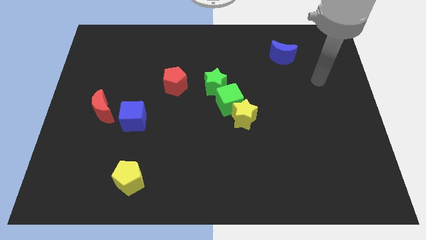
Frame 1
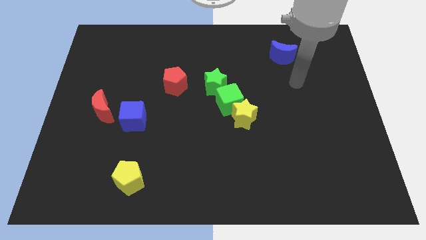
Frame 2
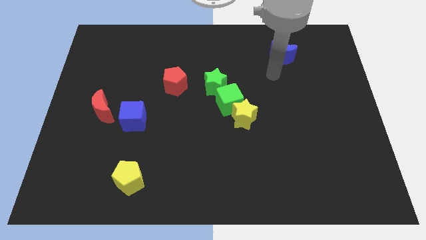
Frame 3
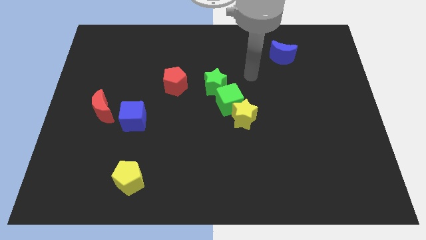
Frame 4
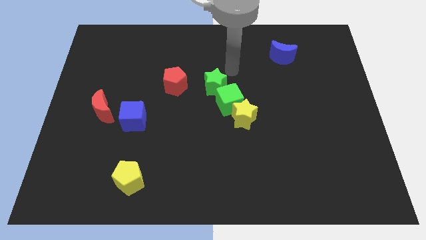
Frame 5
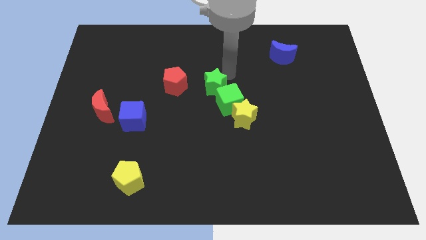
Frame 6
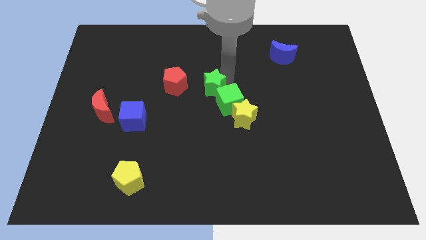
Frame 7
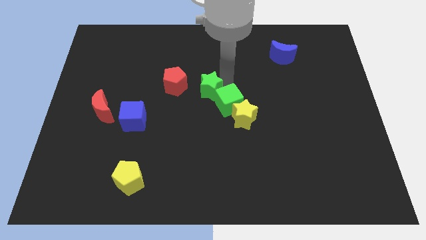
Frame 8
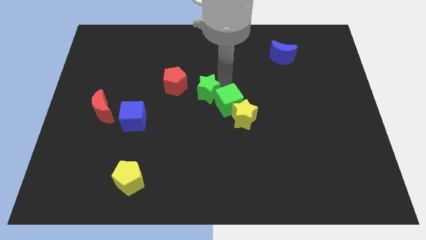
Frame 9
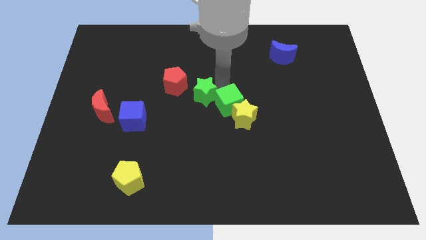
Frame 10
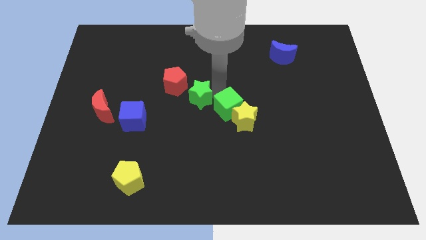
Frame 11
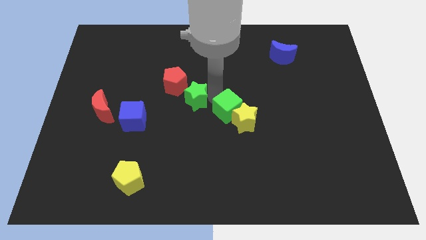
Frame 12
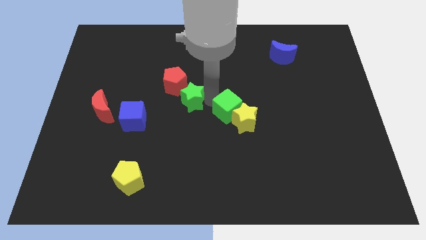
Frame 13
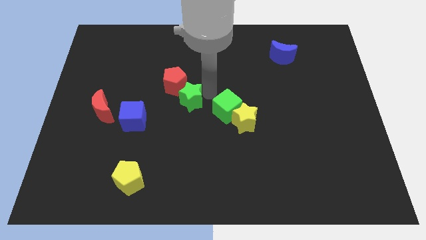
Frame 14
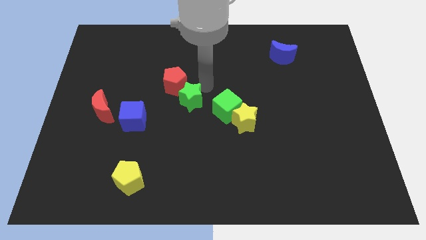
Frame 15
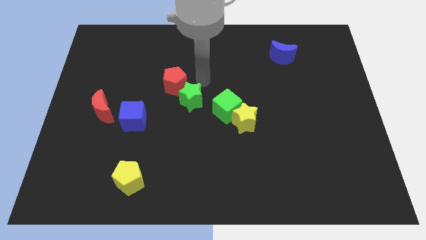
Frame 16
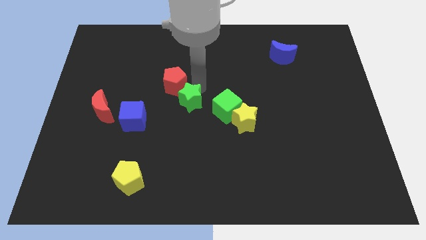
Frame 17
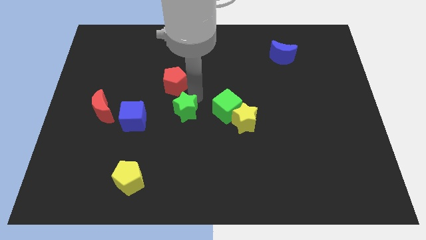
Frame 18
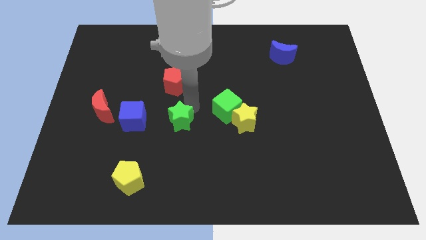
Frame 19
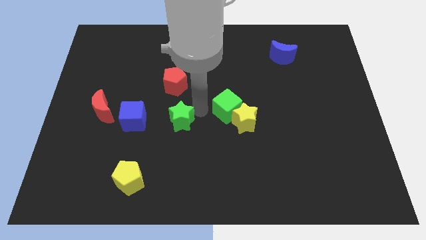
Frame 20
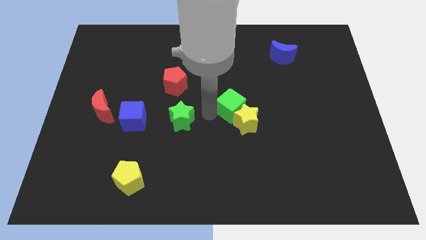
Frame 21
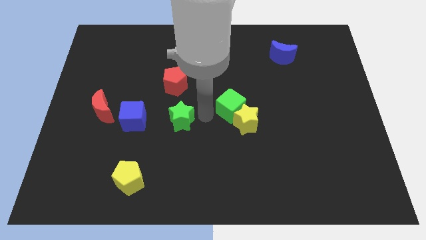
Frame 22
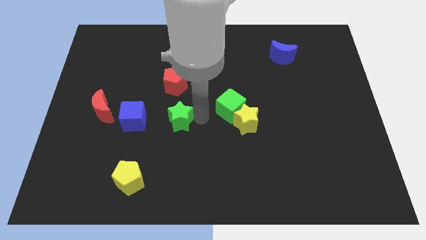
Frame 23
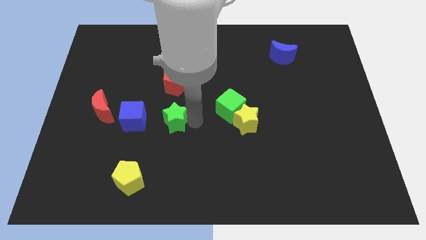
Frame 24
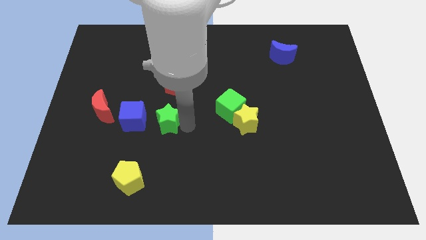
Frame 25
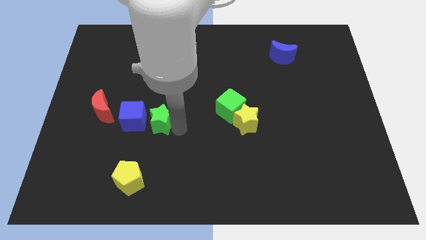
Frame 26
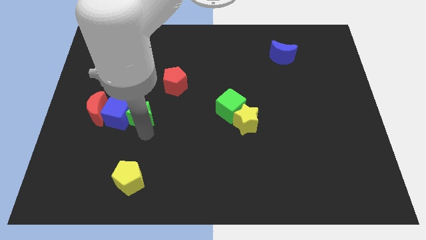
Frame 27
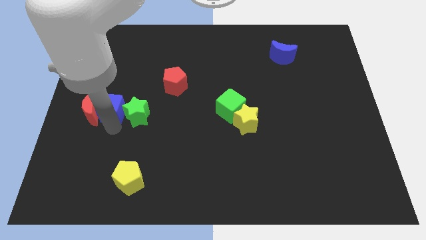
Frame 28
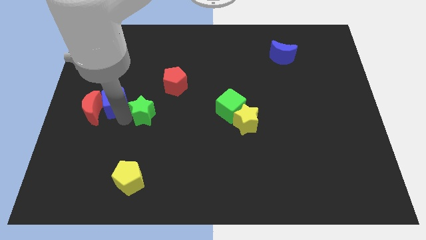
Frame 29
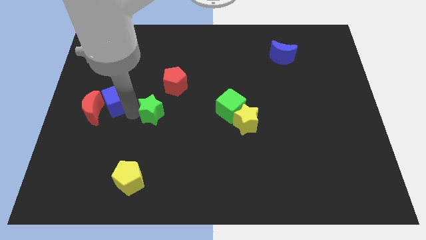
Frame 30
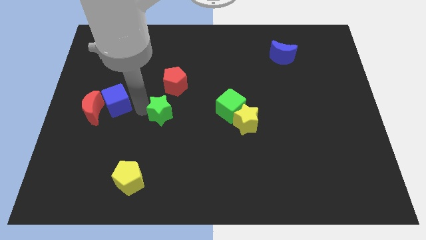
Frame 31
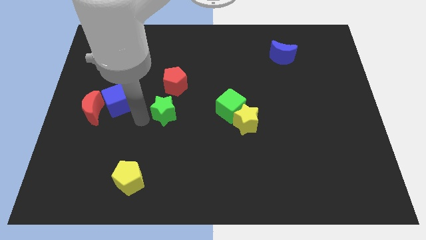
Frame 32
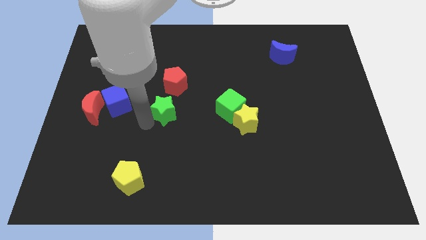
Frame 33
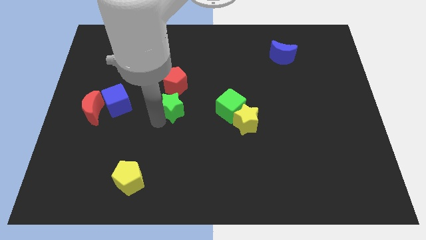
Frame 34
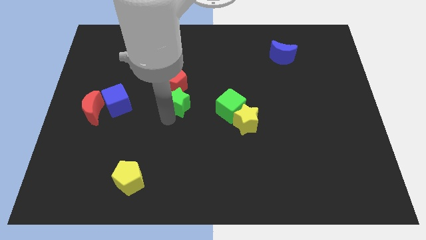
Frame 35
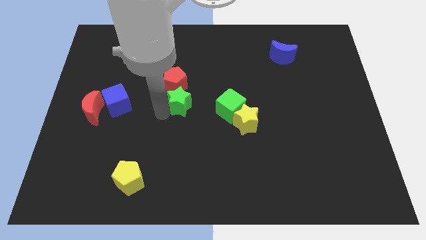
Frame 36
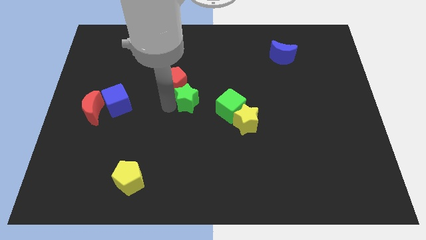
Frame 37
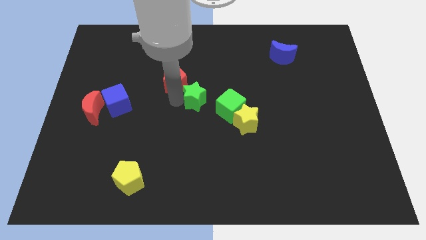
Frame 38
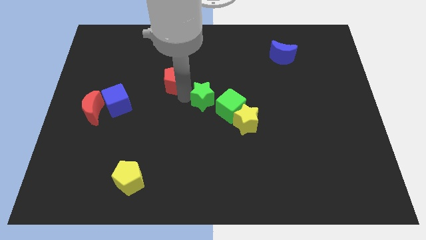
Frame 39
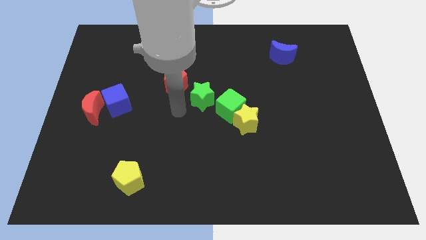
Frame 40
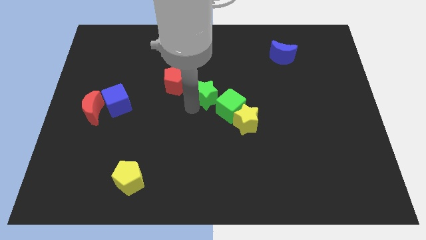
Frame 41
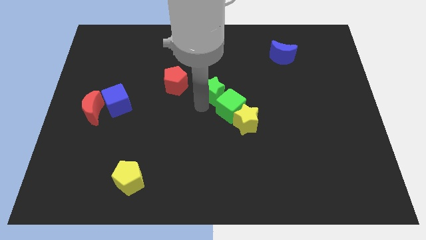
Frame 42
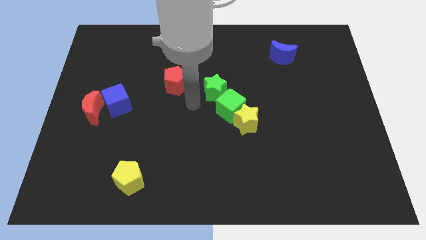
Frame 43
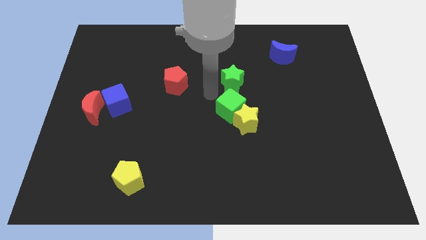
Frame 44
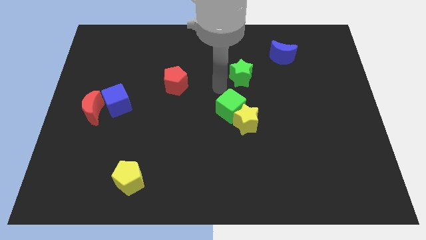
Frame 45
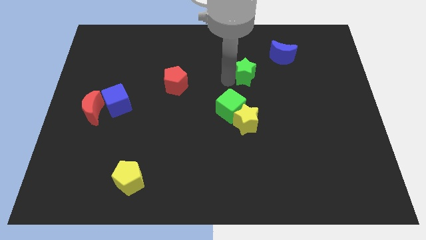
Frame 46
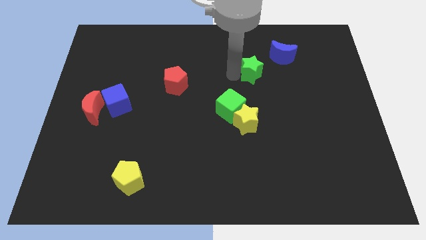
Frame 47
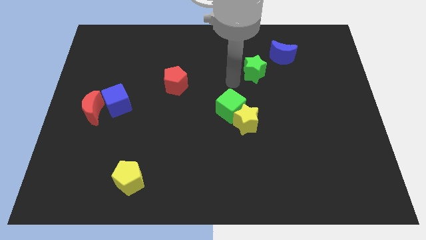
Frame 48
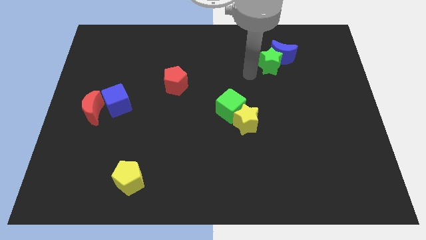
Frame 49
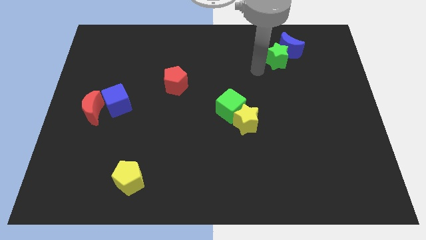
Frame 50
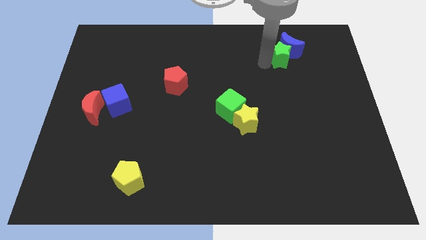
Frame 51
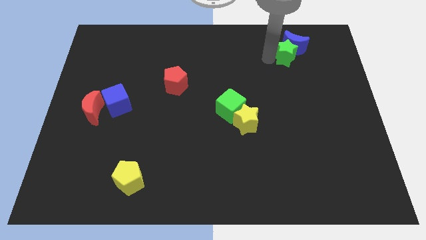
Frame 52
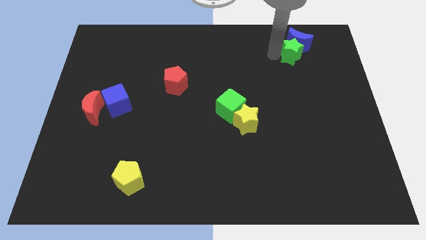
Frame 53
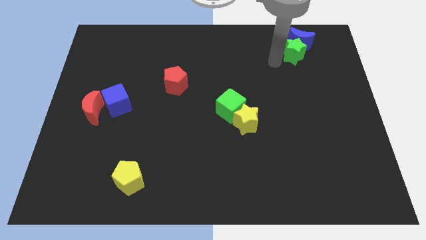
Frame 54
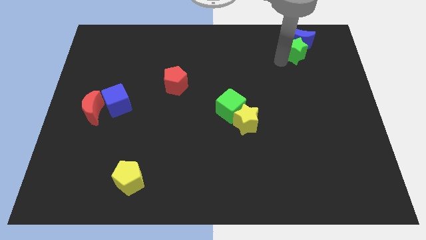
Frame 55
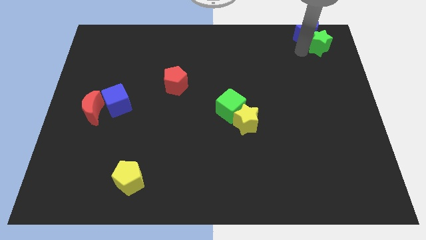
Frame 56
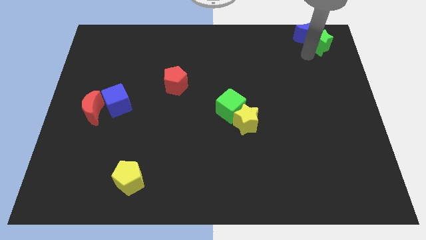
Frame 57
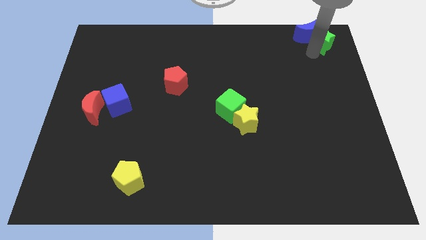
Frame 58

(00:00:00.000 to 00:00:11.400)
push the green star to the top right

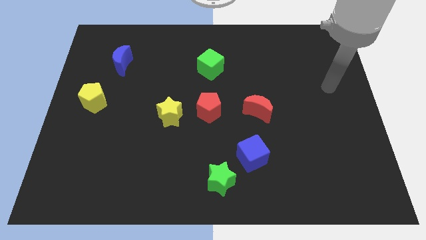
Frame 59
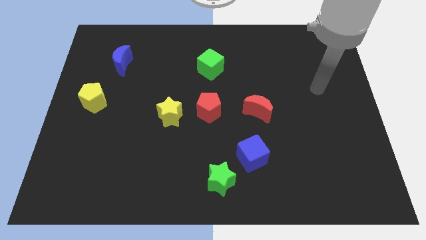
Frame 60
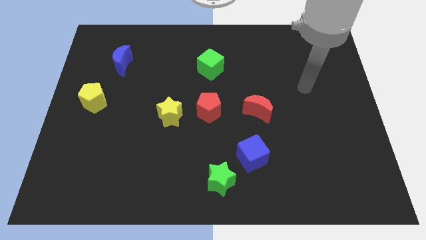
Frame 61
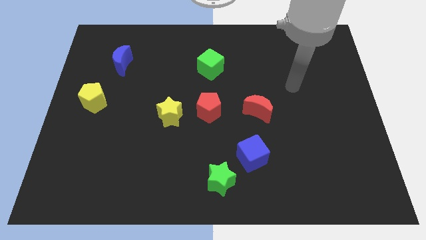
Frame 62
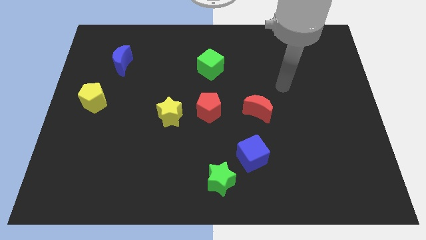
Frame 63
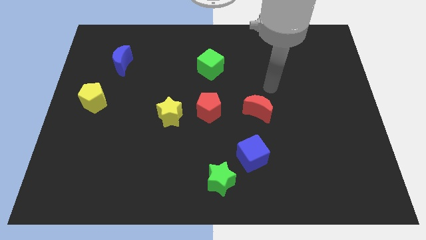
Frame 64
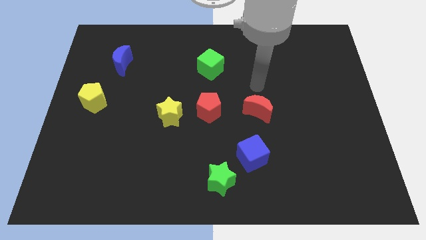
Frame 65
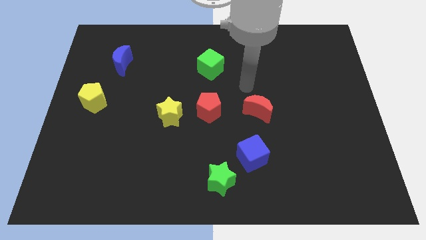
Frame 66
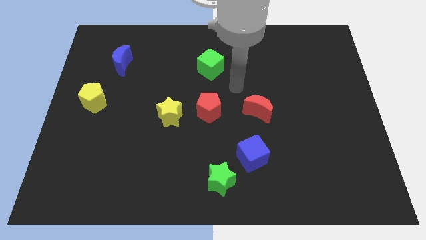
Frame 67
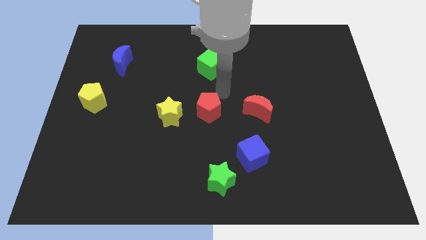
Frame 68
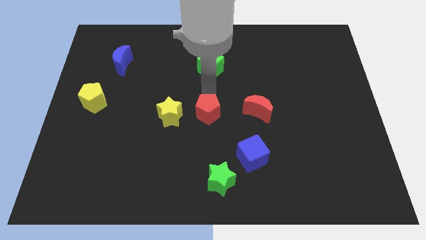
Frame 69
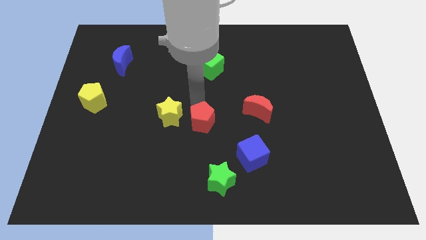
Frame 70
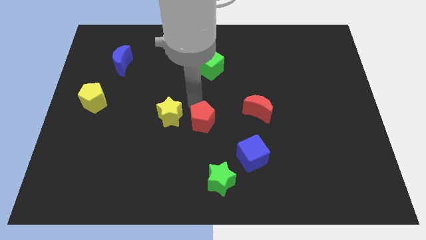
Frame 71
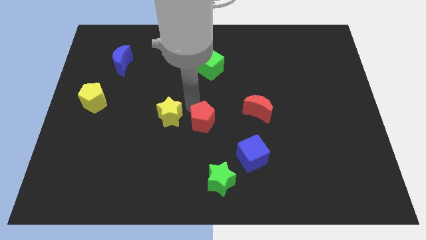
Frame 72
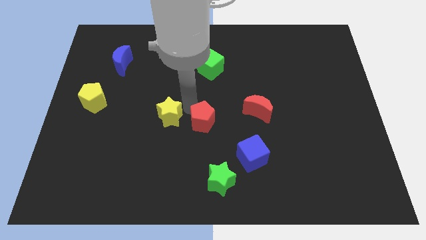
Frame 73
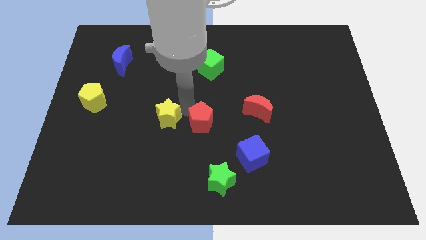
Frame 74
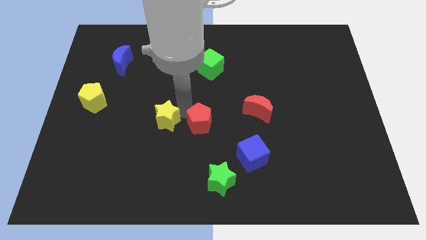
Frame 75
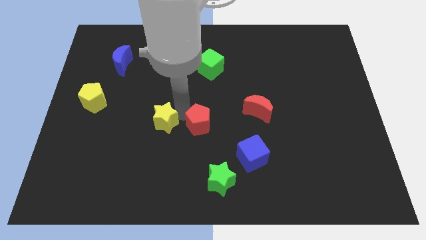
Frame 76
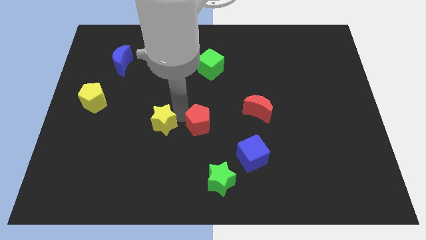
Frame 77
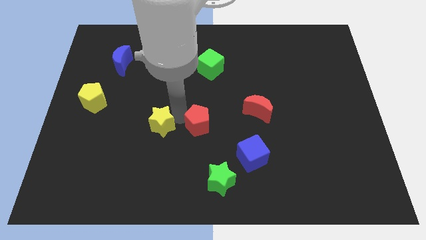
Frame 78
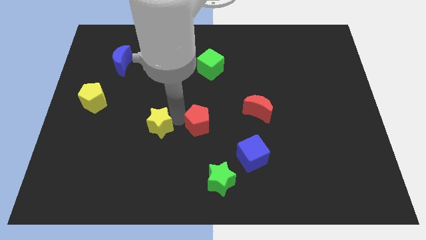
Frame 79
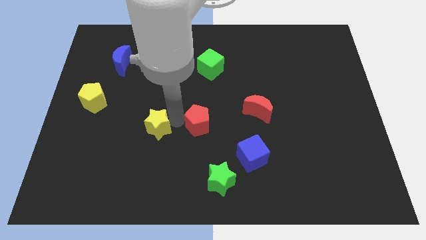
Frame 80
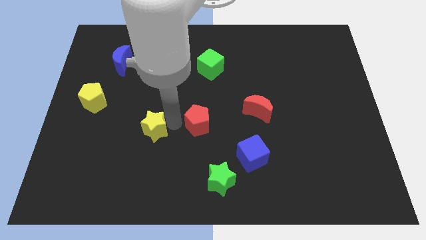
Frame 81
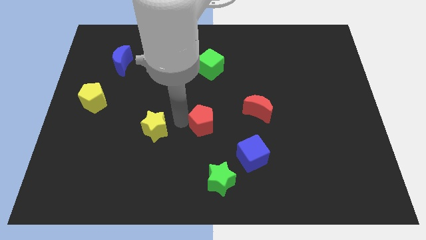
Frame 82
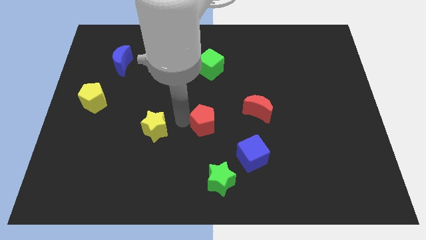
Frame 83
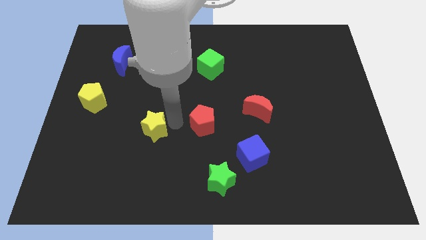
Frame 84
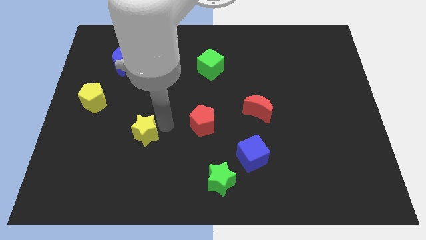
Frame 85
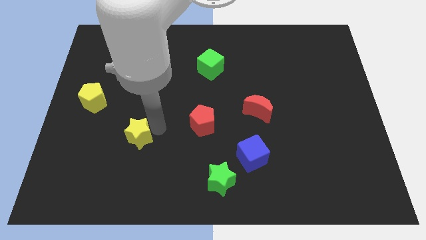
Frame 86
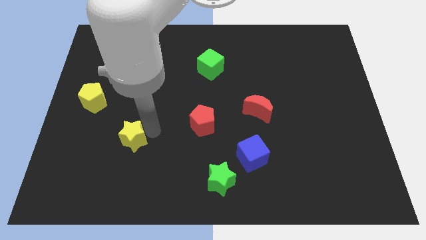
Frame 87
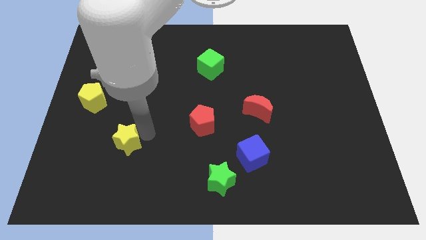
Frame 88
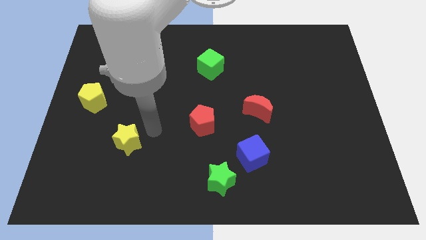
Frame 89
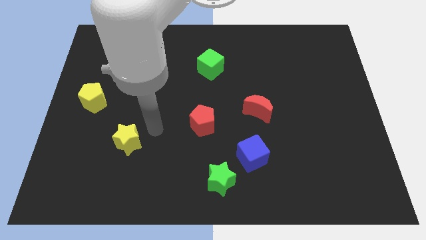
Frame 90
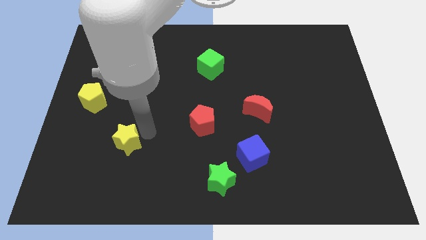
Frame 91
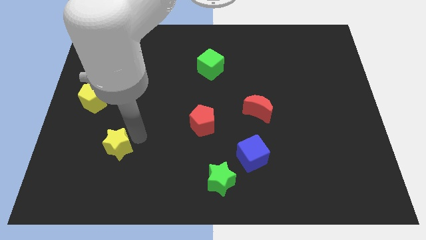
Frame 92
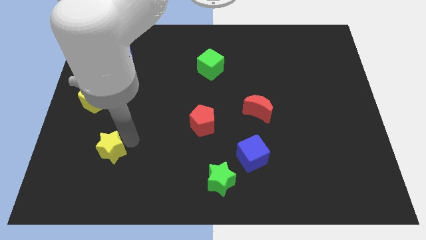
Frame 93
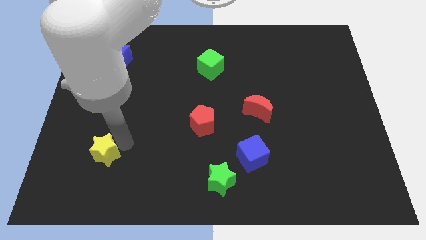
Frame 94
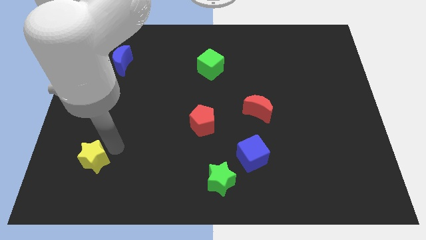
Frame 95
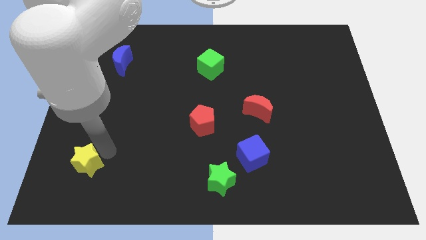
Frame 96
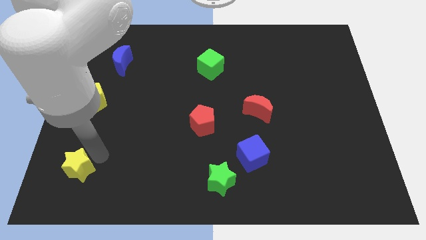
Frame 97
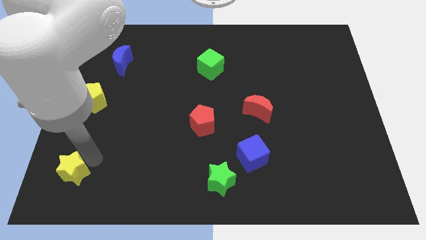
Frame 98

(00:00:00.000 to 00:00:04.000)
move the yellow star to the lower left corner
